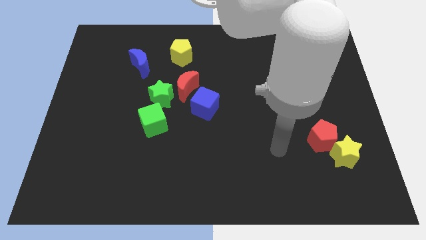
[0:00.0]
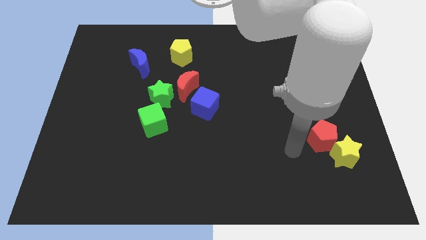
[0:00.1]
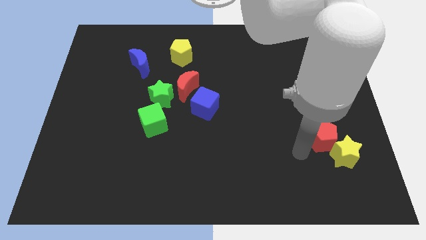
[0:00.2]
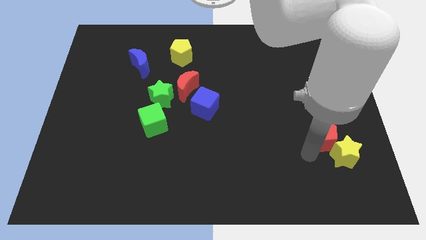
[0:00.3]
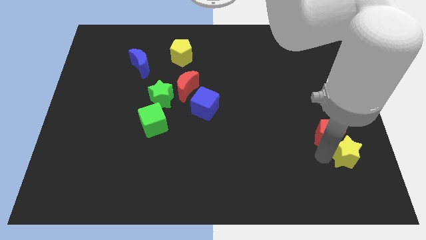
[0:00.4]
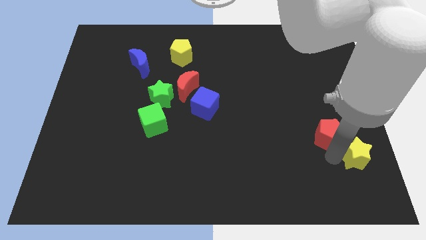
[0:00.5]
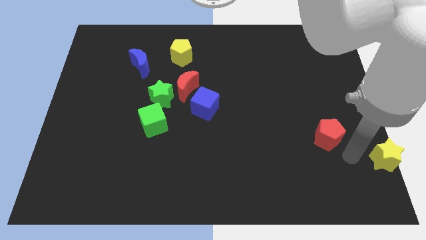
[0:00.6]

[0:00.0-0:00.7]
move the red pentagon away from the yellow star

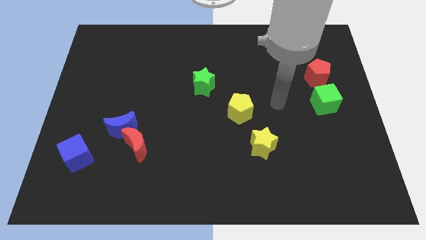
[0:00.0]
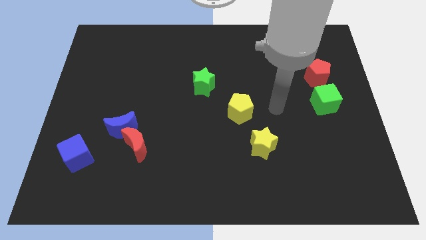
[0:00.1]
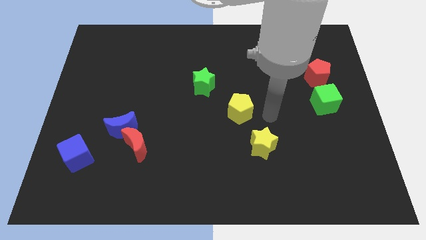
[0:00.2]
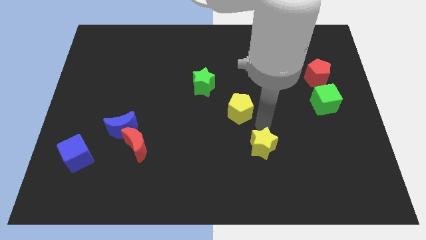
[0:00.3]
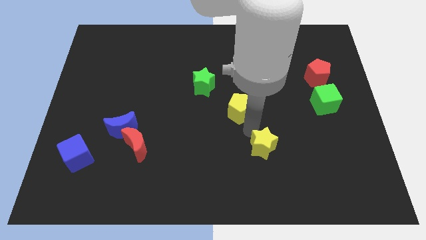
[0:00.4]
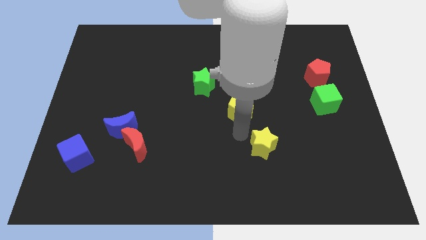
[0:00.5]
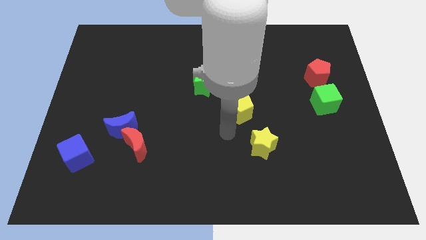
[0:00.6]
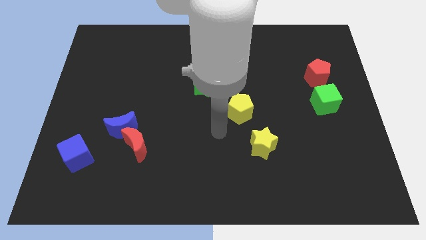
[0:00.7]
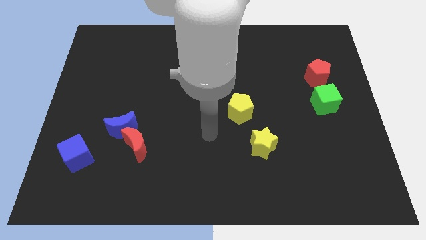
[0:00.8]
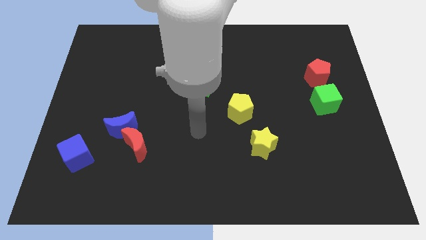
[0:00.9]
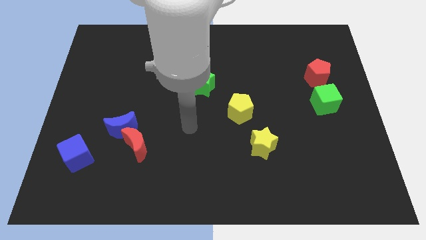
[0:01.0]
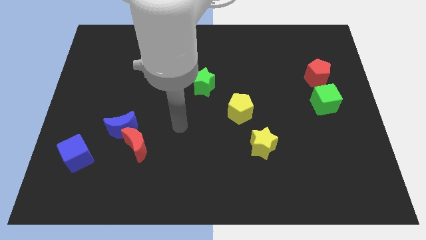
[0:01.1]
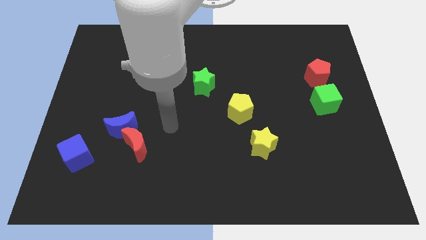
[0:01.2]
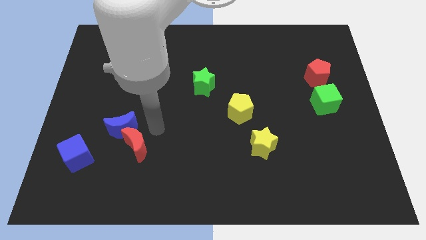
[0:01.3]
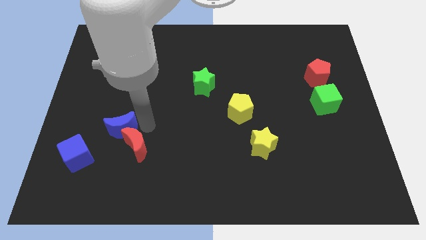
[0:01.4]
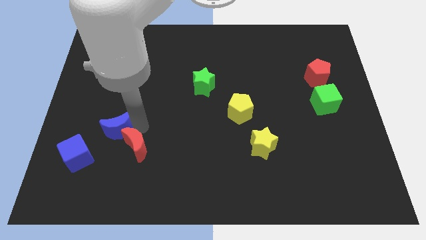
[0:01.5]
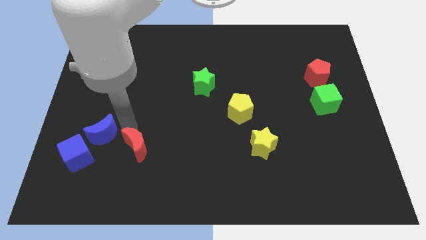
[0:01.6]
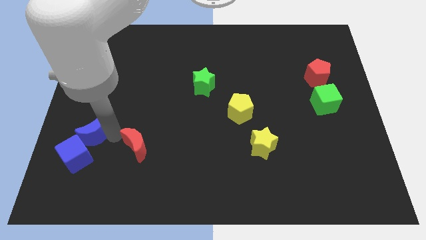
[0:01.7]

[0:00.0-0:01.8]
move the red moon away from the blue moon

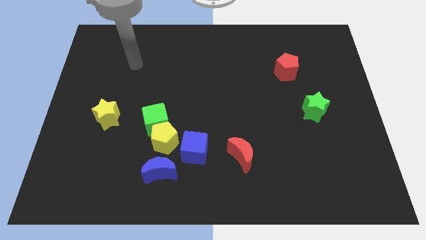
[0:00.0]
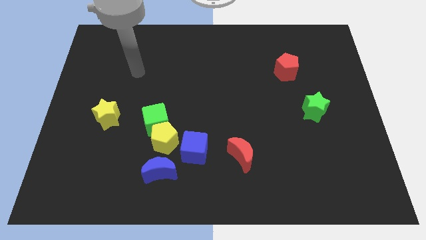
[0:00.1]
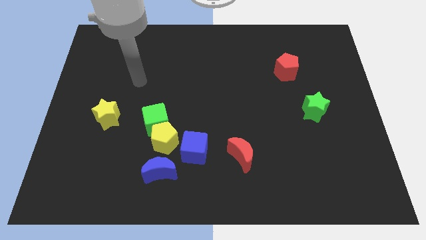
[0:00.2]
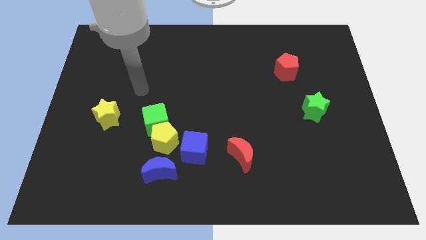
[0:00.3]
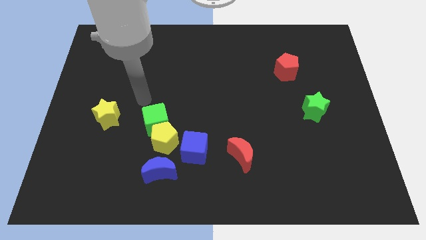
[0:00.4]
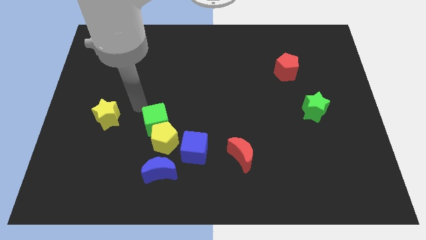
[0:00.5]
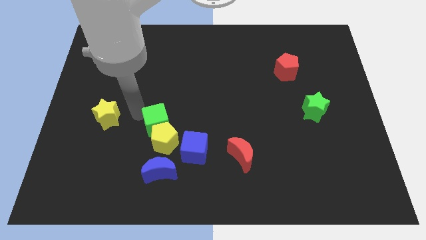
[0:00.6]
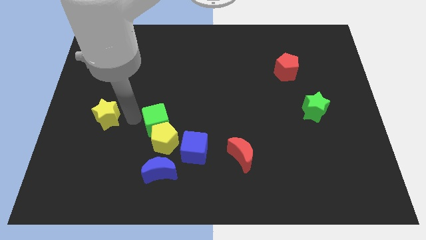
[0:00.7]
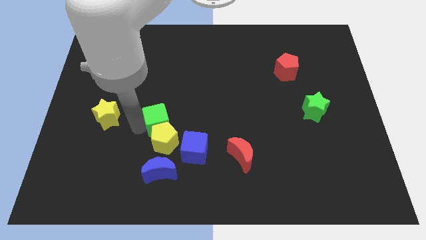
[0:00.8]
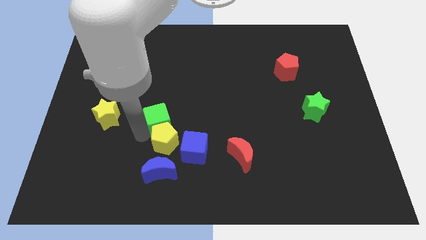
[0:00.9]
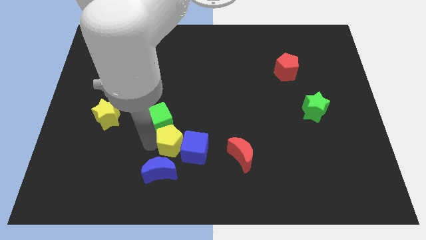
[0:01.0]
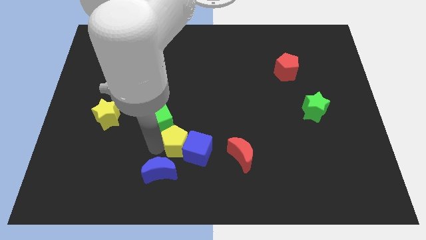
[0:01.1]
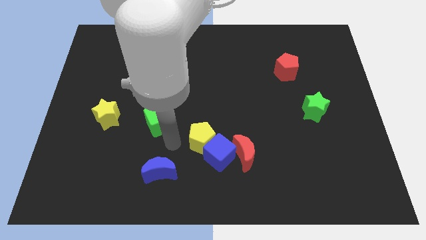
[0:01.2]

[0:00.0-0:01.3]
move the green cube away from the yellow pentagon

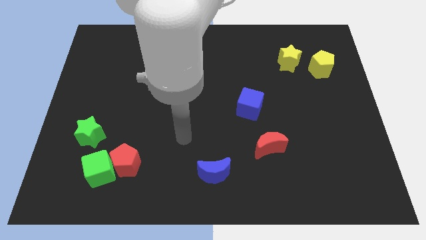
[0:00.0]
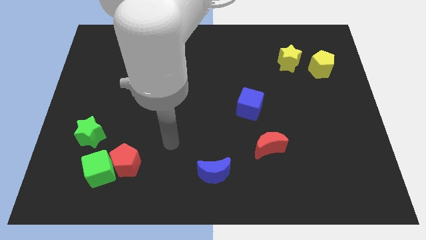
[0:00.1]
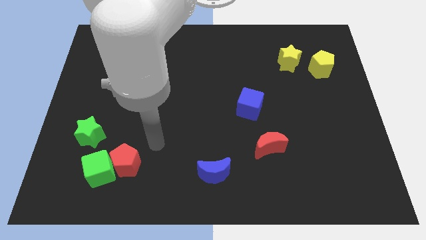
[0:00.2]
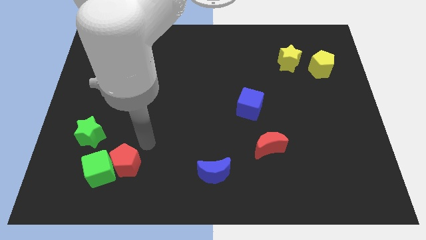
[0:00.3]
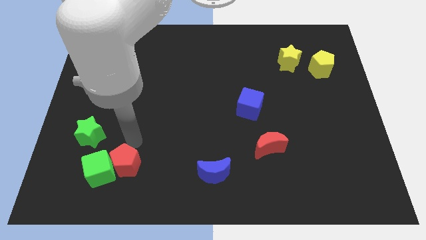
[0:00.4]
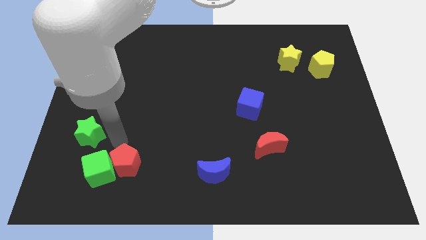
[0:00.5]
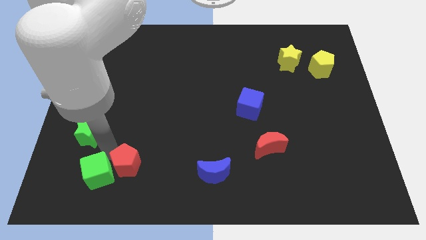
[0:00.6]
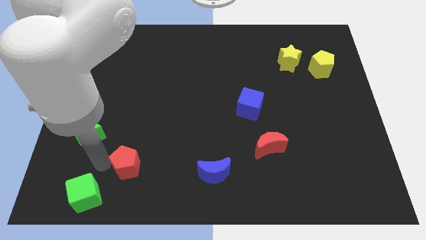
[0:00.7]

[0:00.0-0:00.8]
separate the red pentagon from the green cube

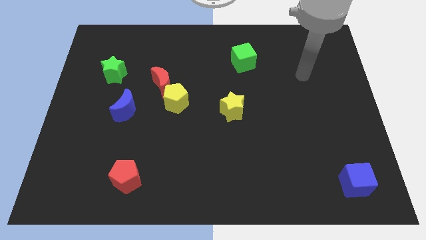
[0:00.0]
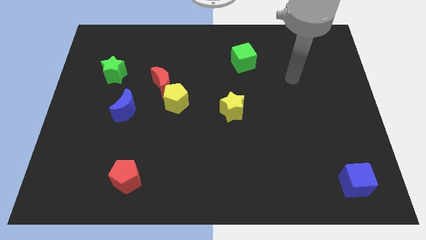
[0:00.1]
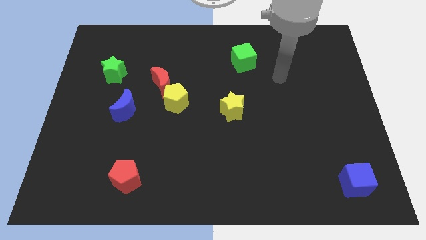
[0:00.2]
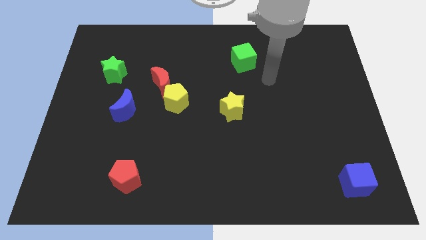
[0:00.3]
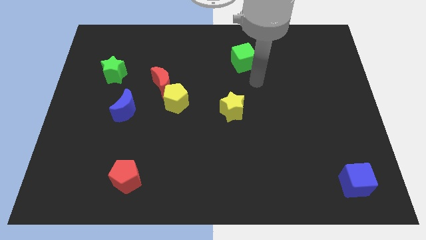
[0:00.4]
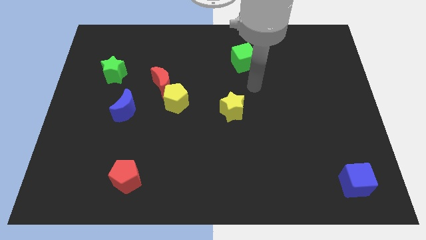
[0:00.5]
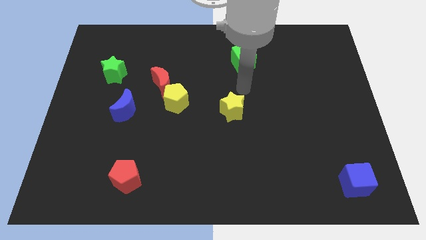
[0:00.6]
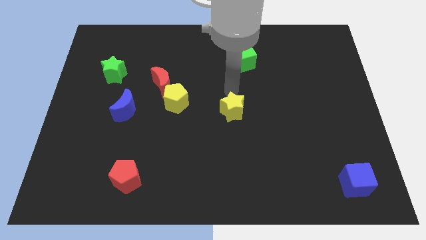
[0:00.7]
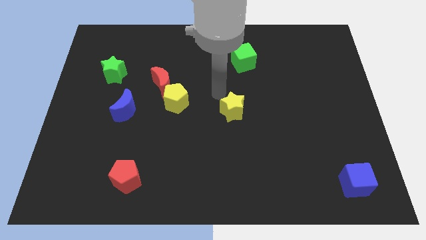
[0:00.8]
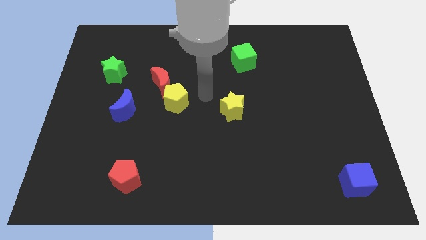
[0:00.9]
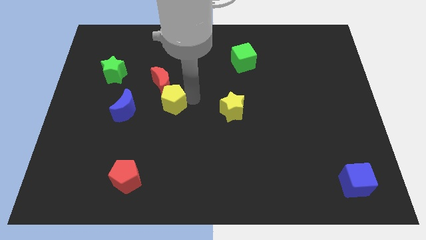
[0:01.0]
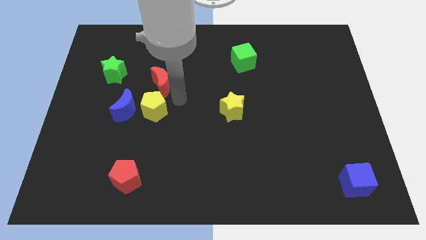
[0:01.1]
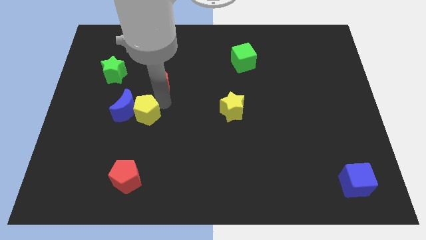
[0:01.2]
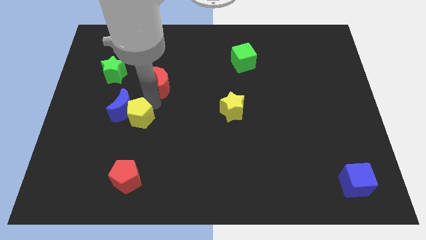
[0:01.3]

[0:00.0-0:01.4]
pull the red moon apart from the yellow pentagon

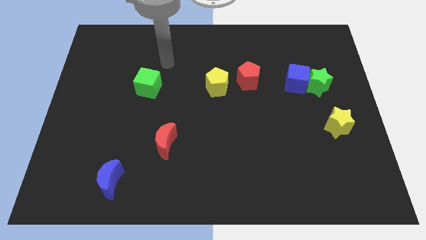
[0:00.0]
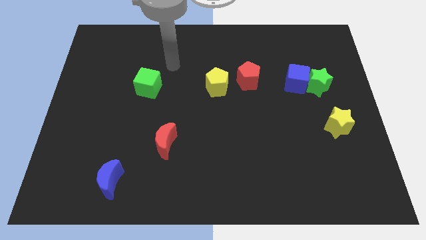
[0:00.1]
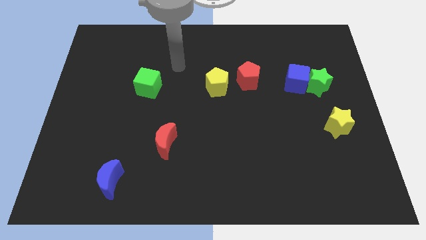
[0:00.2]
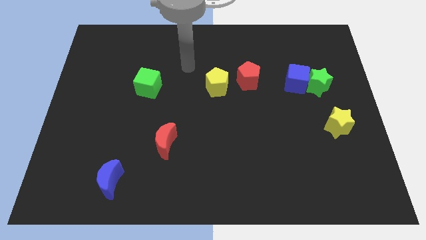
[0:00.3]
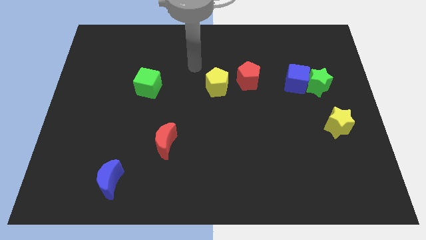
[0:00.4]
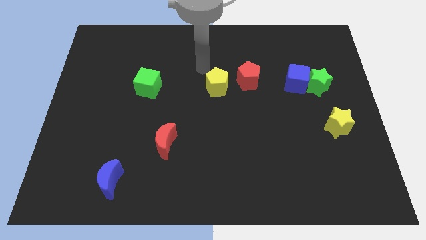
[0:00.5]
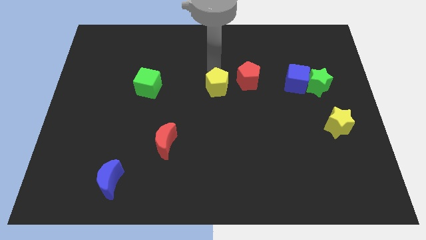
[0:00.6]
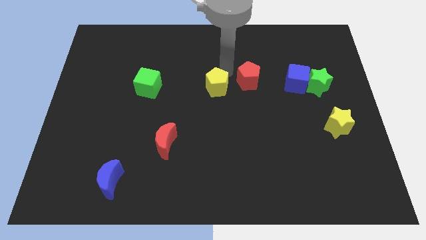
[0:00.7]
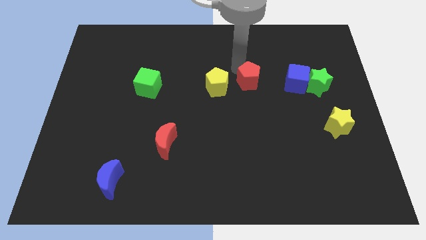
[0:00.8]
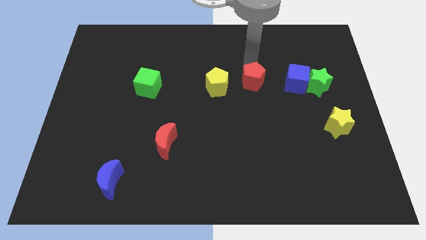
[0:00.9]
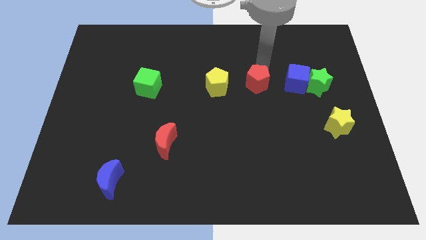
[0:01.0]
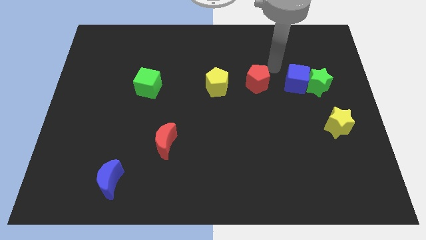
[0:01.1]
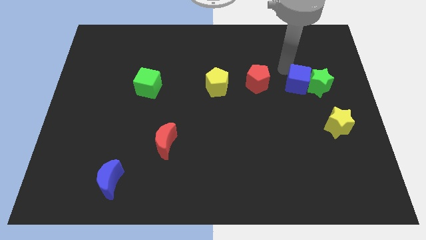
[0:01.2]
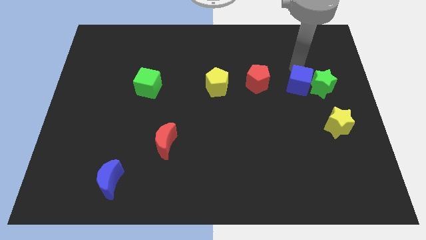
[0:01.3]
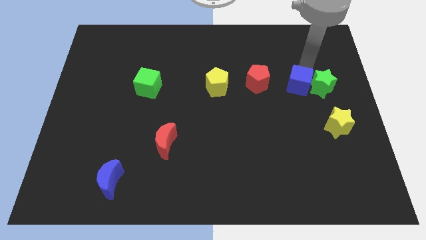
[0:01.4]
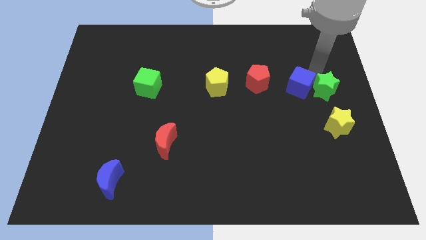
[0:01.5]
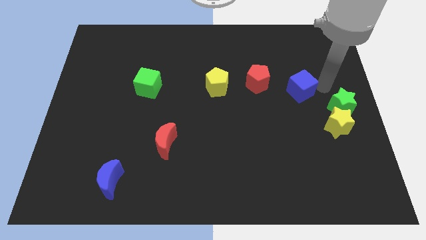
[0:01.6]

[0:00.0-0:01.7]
separate the blue cube from the green star

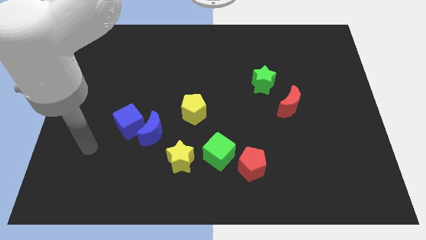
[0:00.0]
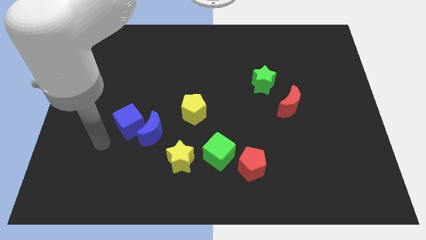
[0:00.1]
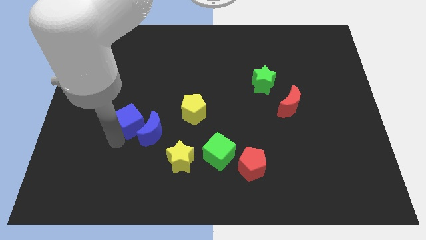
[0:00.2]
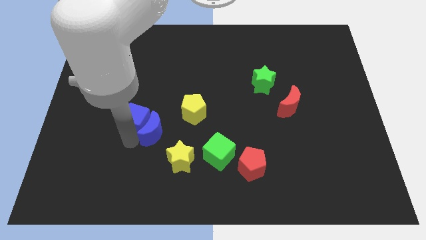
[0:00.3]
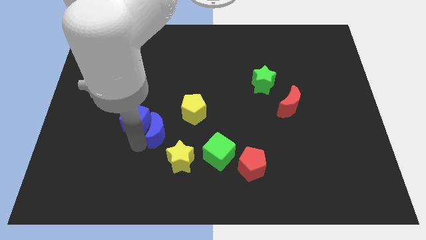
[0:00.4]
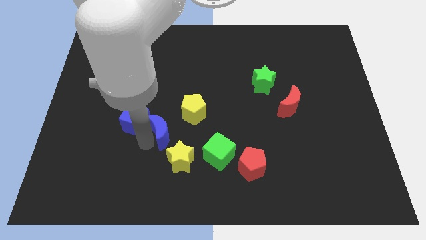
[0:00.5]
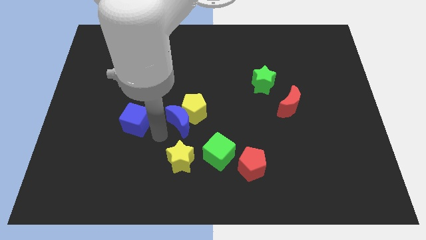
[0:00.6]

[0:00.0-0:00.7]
move the blue cube away from the blue moon

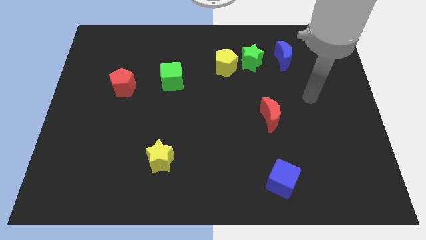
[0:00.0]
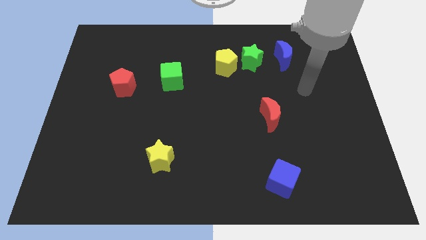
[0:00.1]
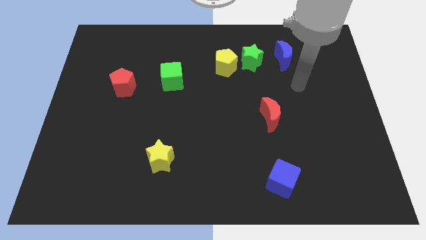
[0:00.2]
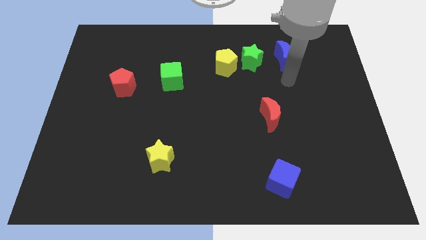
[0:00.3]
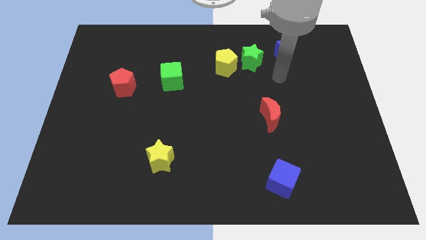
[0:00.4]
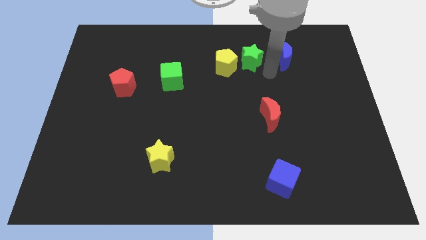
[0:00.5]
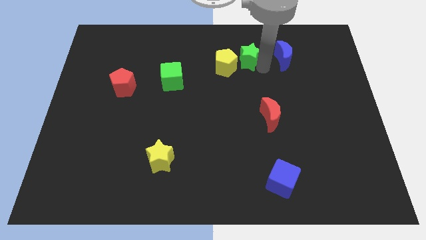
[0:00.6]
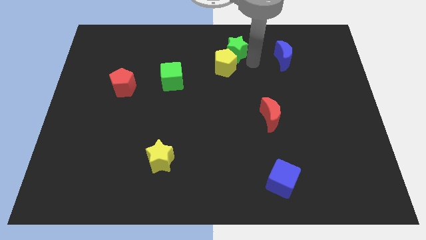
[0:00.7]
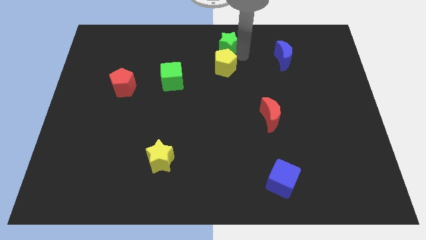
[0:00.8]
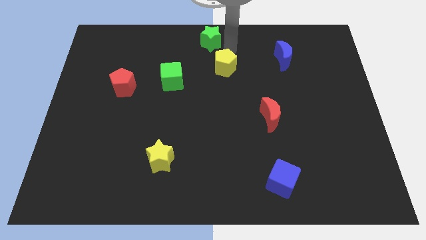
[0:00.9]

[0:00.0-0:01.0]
move the yellow pentagon away from the green star
